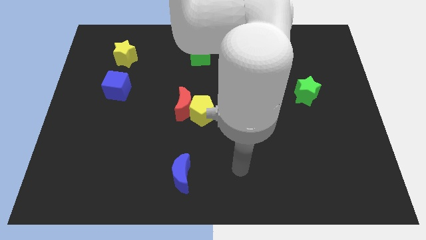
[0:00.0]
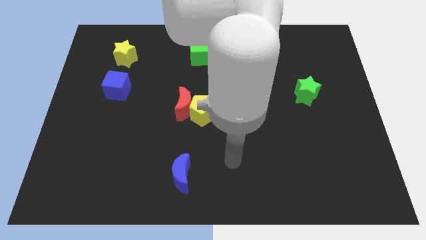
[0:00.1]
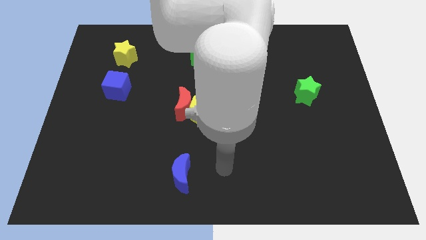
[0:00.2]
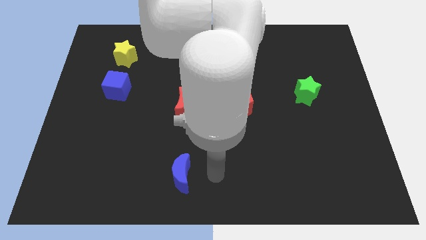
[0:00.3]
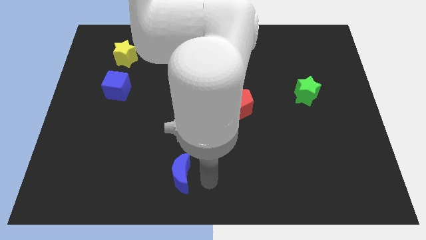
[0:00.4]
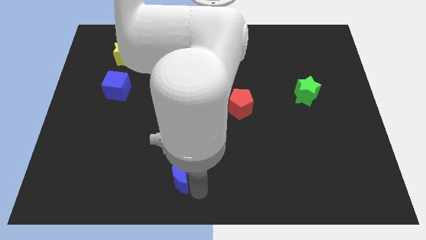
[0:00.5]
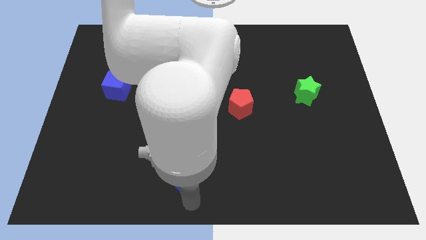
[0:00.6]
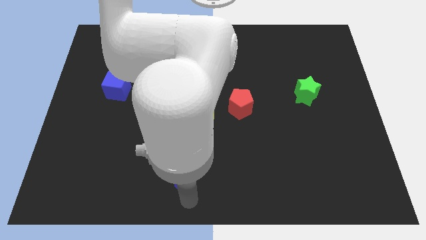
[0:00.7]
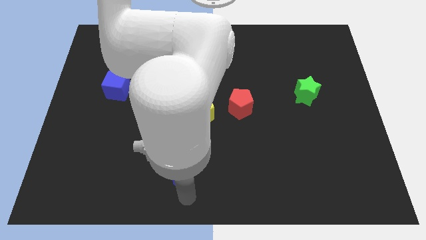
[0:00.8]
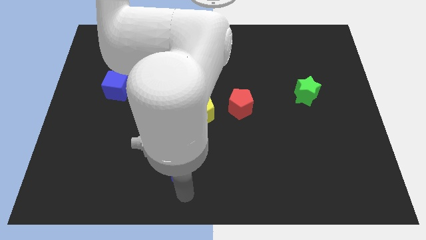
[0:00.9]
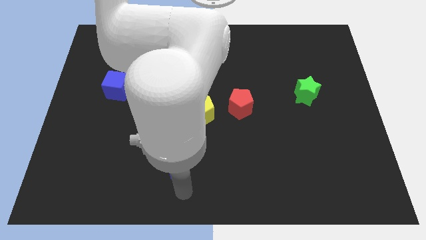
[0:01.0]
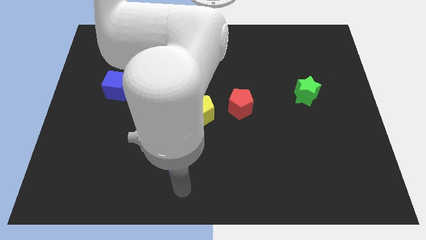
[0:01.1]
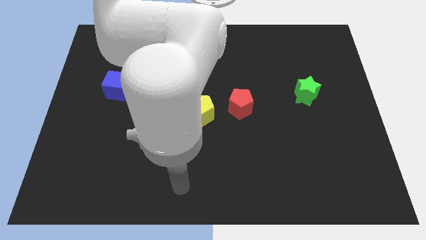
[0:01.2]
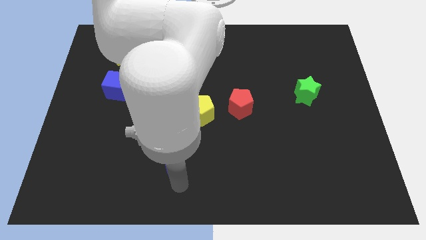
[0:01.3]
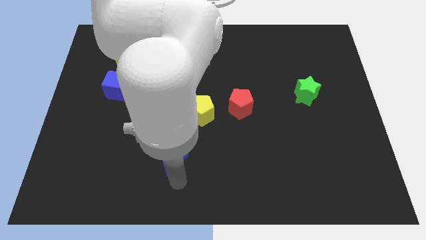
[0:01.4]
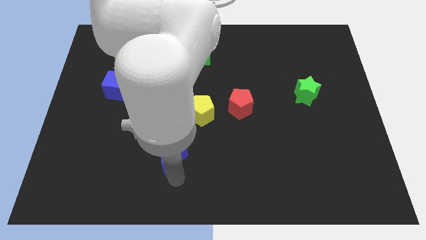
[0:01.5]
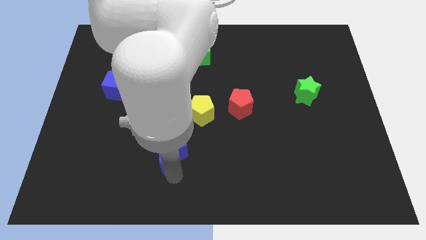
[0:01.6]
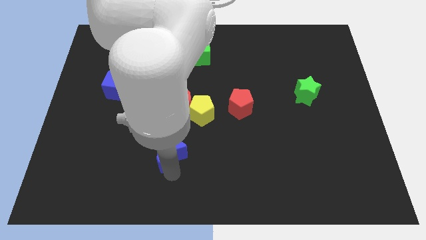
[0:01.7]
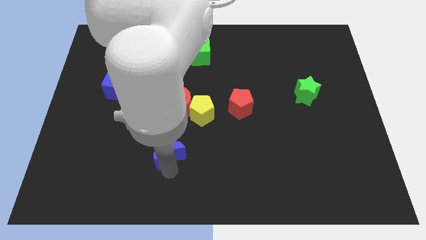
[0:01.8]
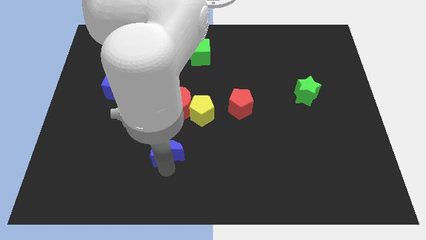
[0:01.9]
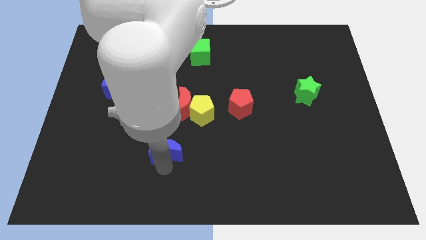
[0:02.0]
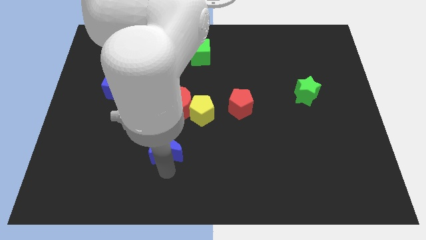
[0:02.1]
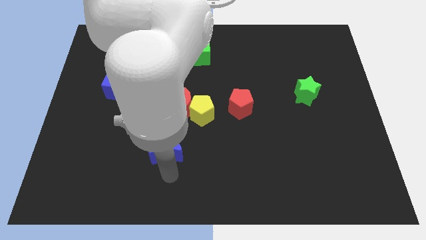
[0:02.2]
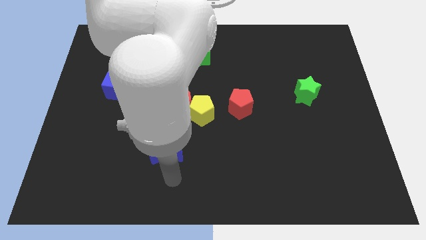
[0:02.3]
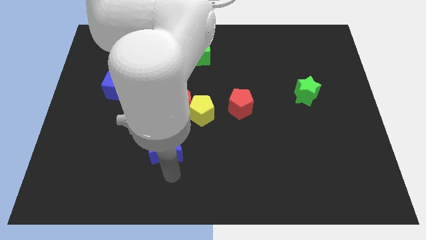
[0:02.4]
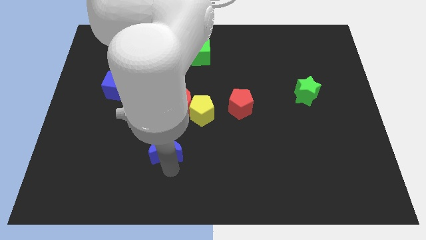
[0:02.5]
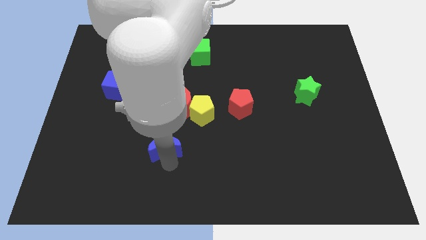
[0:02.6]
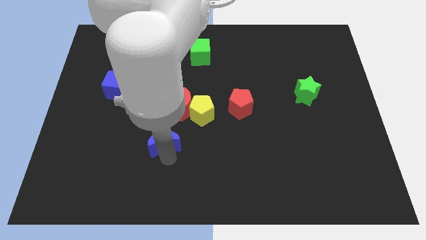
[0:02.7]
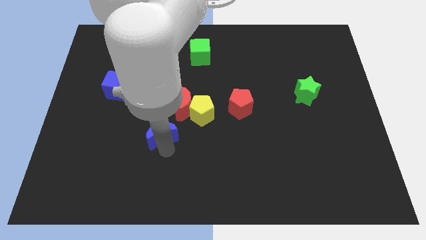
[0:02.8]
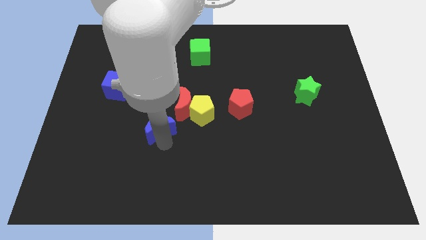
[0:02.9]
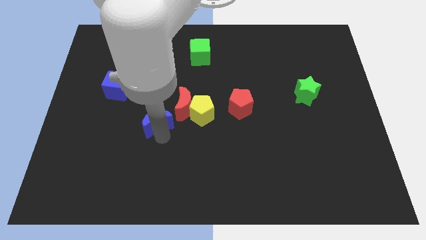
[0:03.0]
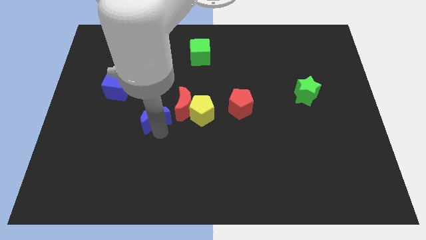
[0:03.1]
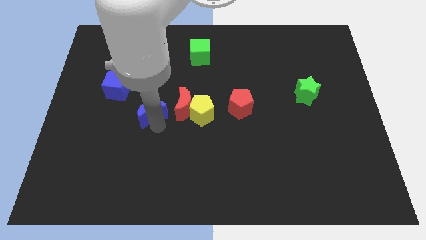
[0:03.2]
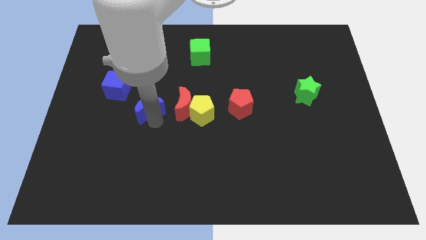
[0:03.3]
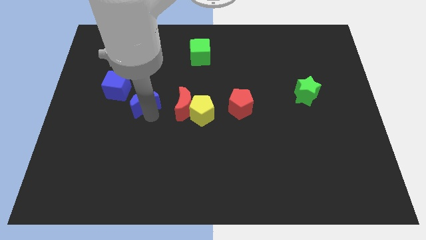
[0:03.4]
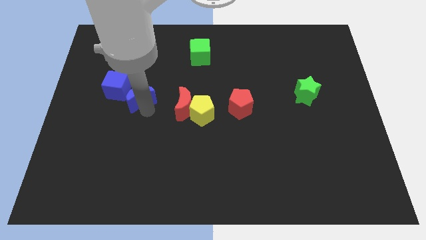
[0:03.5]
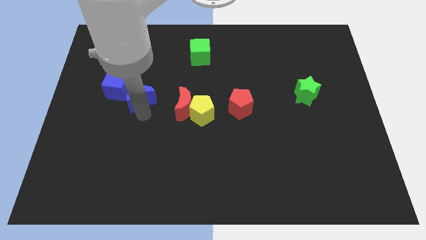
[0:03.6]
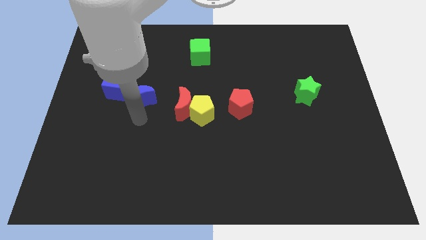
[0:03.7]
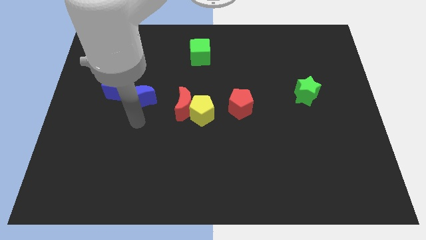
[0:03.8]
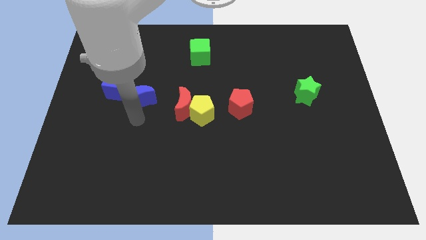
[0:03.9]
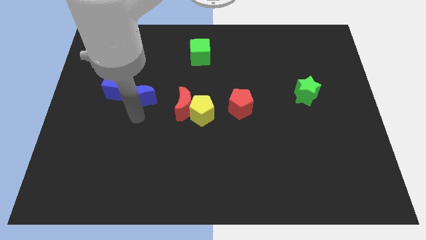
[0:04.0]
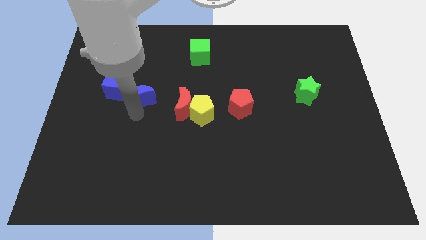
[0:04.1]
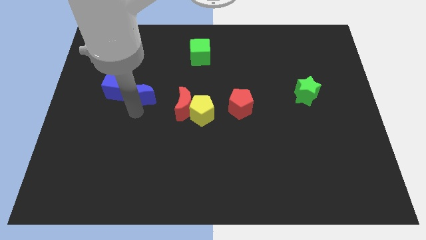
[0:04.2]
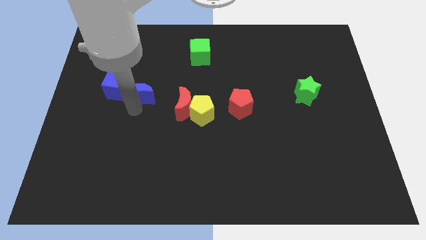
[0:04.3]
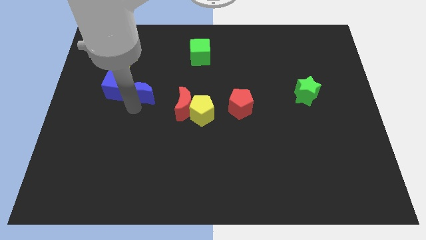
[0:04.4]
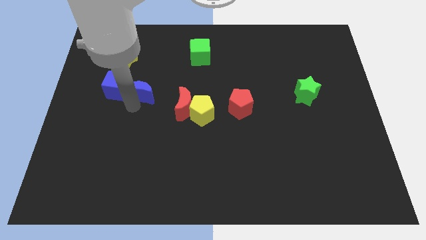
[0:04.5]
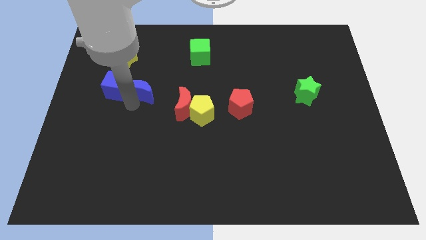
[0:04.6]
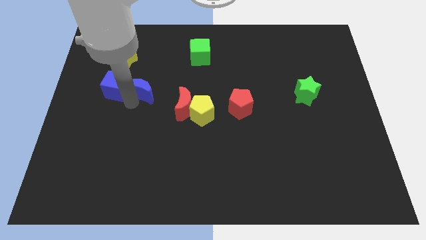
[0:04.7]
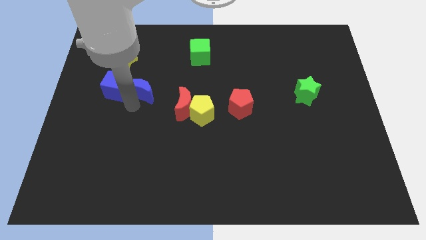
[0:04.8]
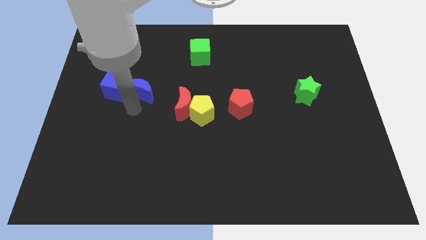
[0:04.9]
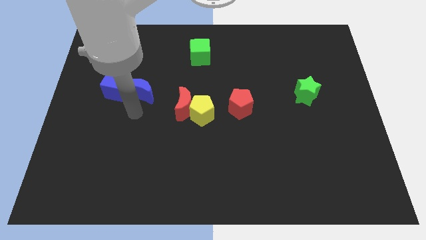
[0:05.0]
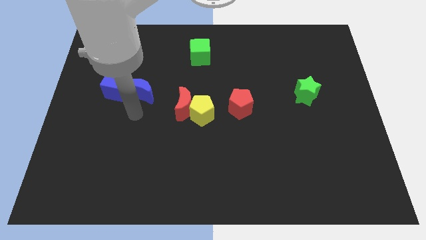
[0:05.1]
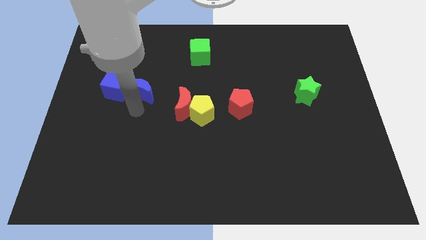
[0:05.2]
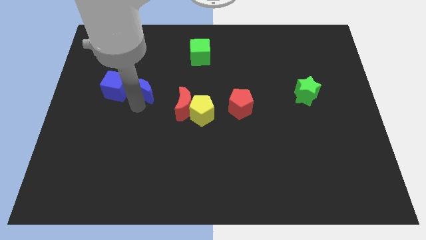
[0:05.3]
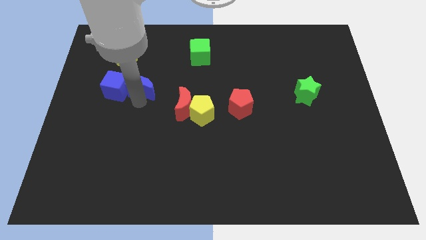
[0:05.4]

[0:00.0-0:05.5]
push the blue moon diagonally up and to the right of the blue cube

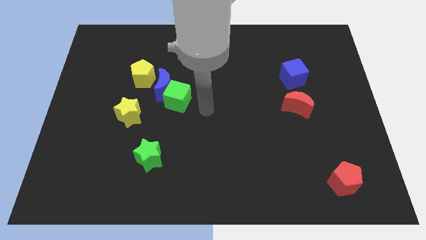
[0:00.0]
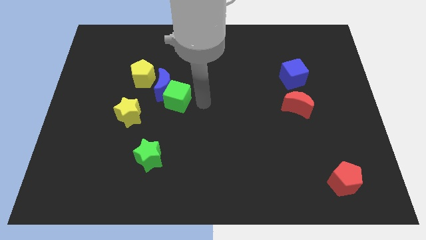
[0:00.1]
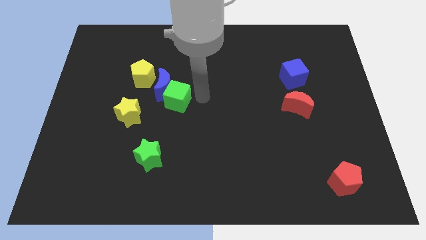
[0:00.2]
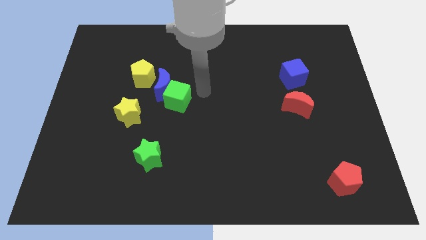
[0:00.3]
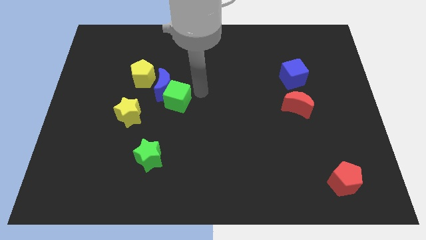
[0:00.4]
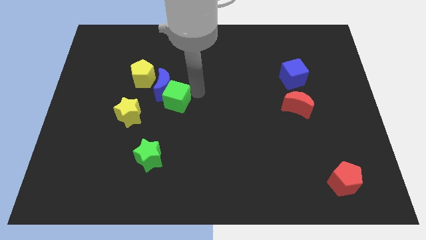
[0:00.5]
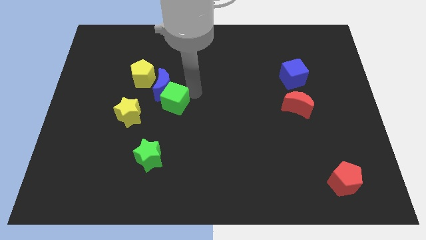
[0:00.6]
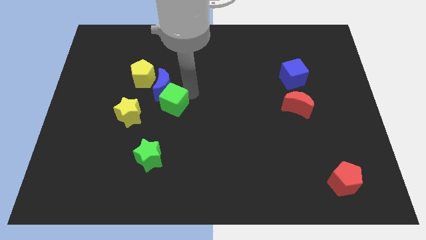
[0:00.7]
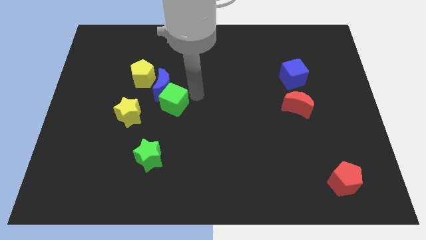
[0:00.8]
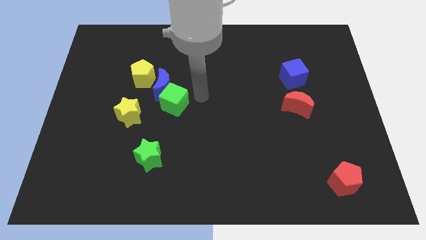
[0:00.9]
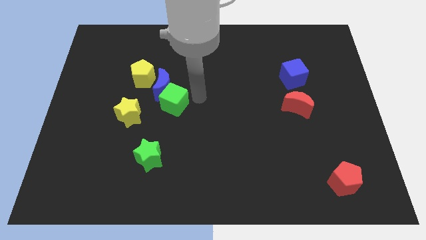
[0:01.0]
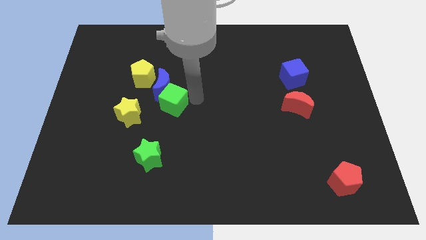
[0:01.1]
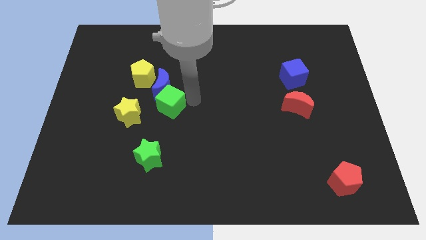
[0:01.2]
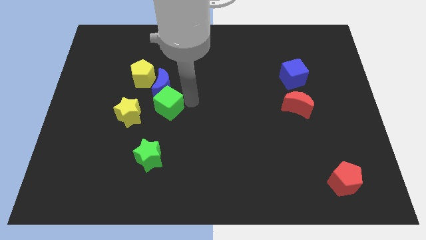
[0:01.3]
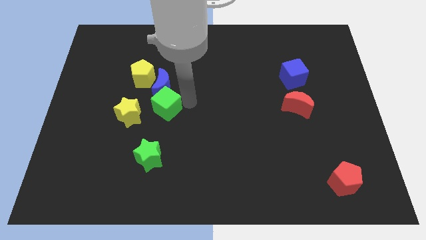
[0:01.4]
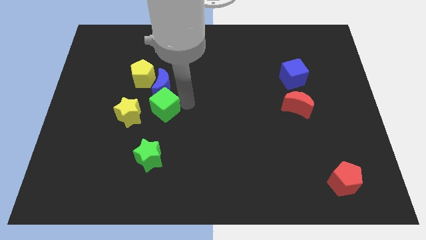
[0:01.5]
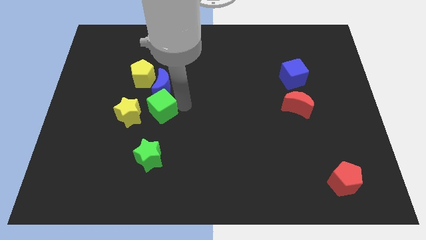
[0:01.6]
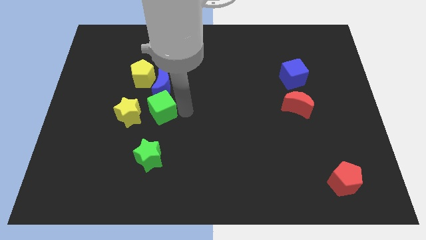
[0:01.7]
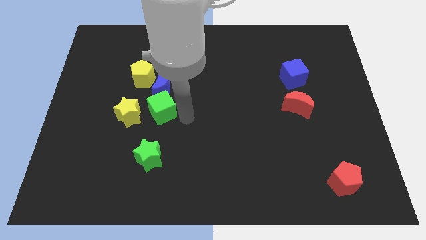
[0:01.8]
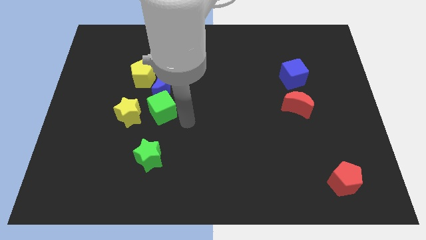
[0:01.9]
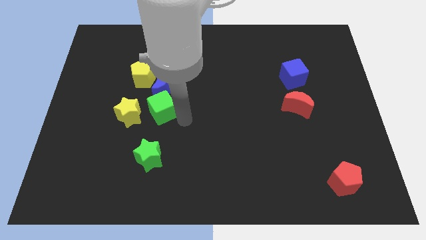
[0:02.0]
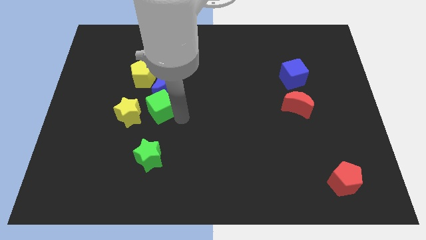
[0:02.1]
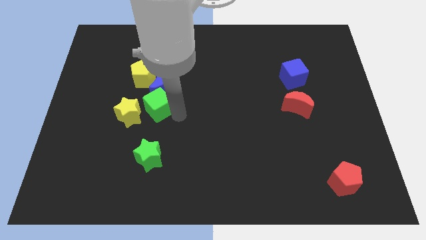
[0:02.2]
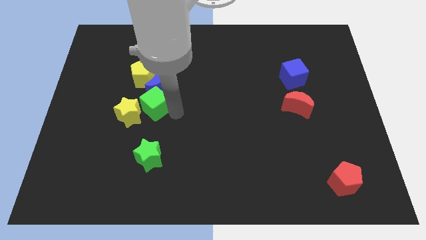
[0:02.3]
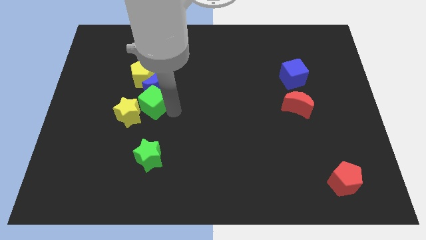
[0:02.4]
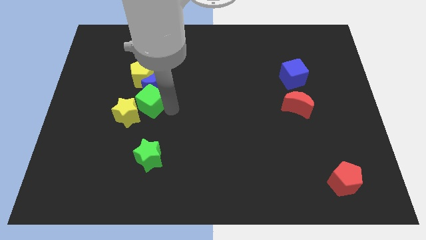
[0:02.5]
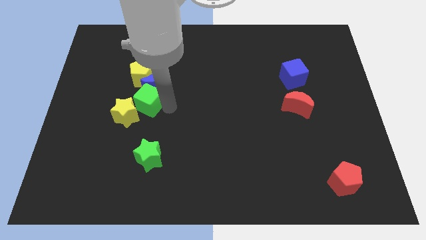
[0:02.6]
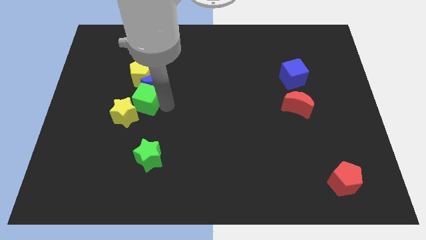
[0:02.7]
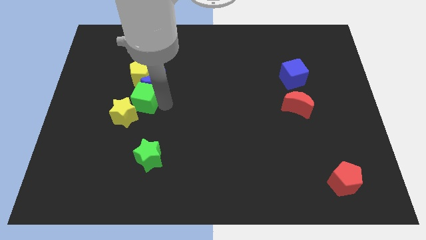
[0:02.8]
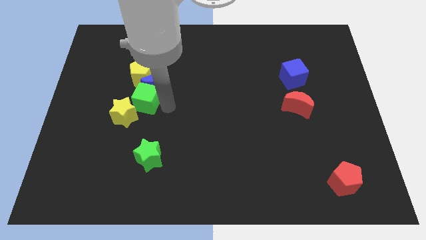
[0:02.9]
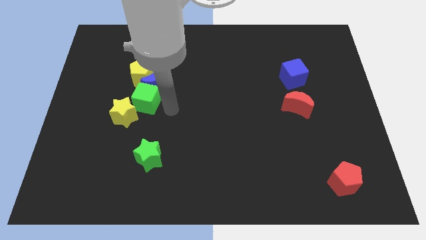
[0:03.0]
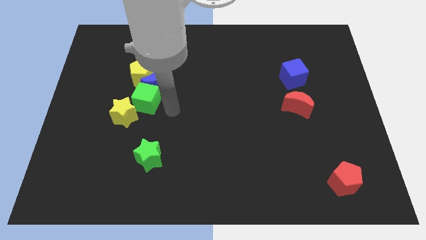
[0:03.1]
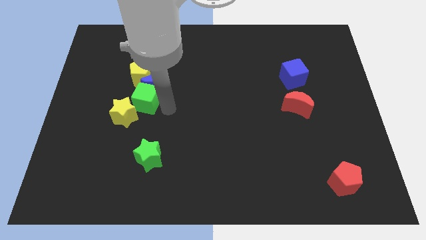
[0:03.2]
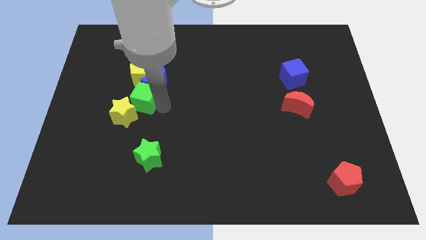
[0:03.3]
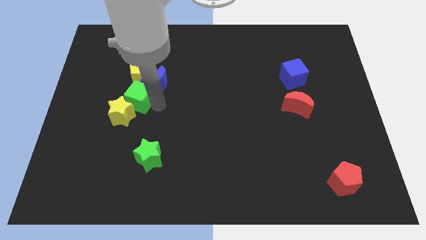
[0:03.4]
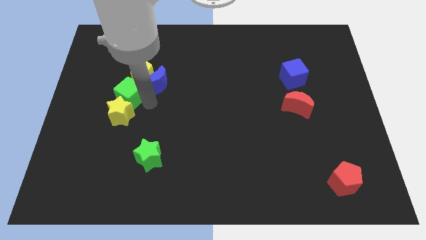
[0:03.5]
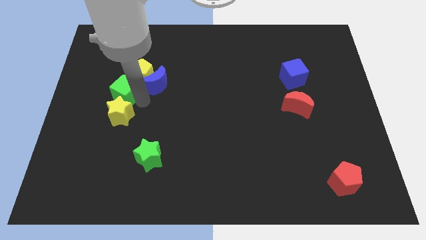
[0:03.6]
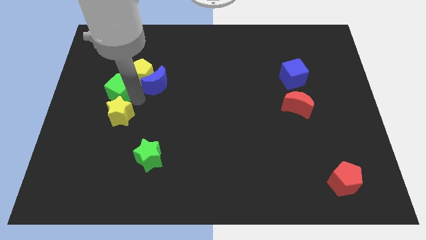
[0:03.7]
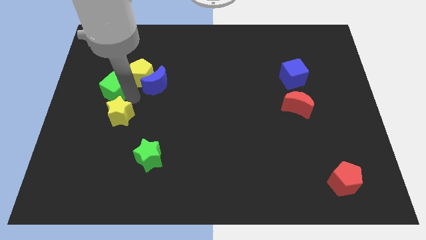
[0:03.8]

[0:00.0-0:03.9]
put the green cube left of the yellow pentagon
